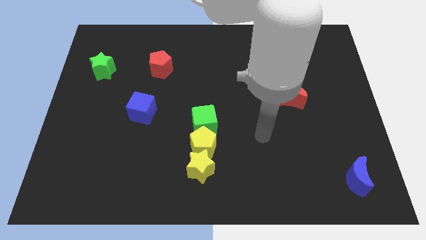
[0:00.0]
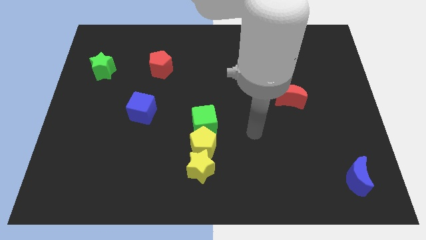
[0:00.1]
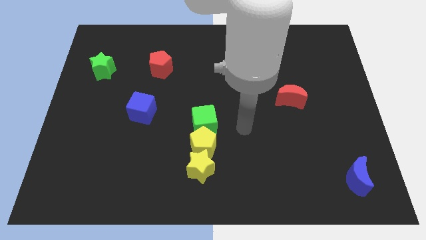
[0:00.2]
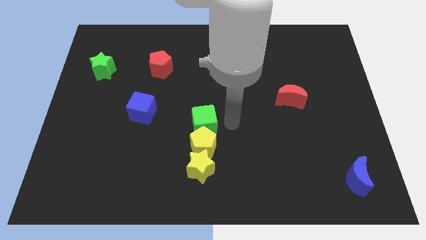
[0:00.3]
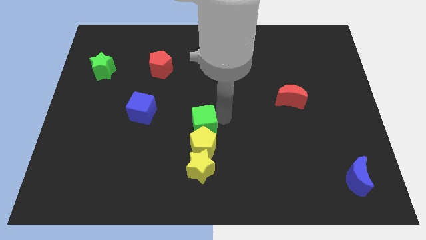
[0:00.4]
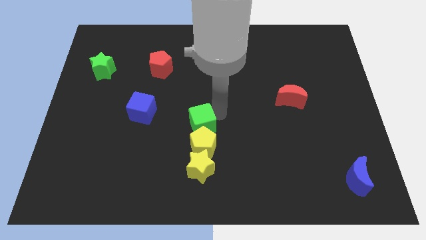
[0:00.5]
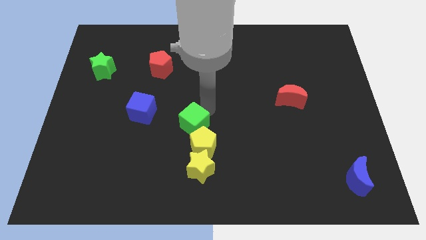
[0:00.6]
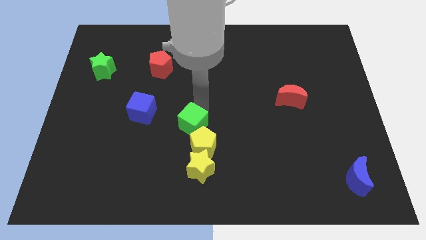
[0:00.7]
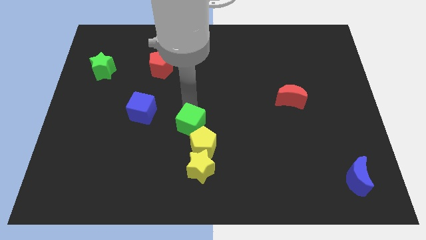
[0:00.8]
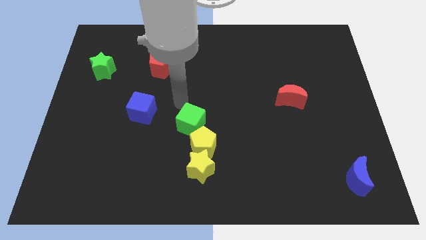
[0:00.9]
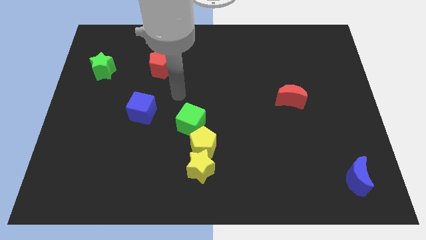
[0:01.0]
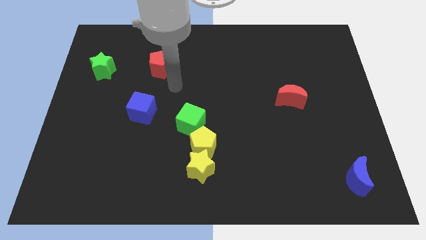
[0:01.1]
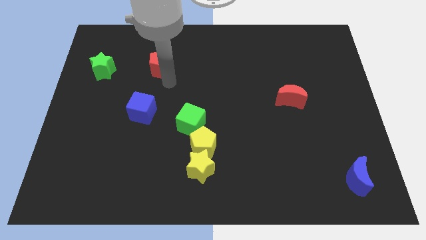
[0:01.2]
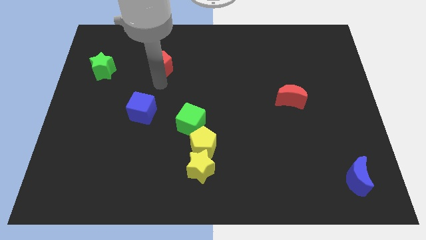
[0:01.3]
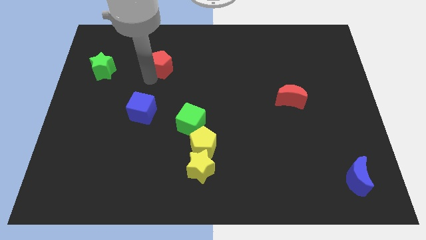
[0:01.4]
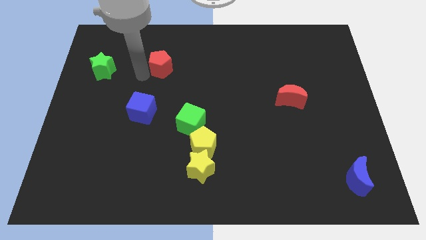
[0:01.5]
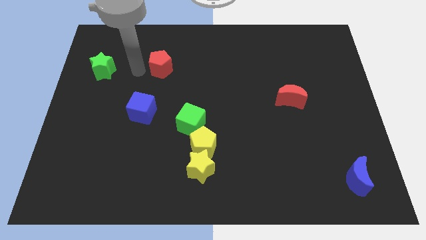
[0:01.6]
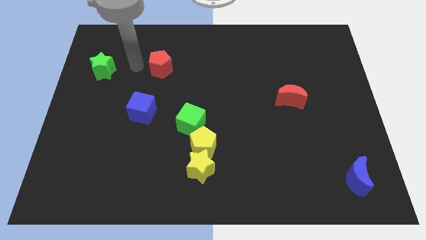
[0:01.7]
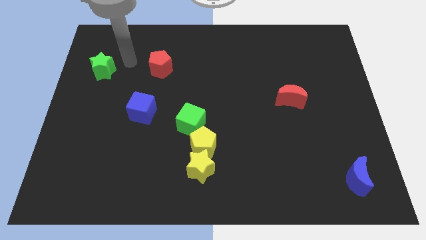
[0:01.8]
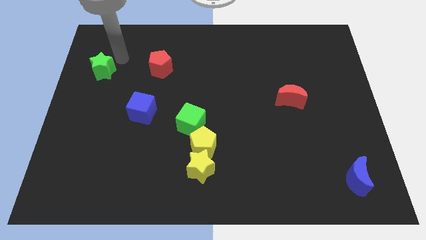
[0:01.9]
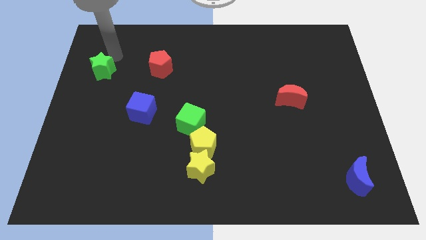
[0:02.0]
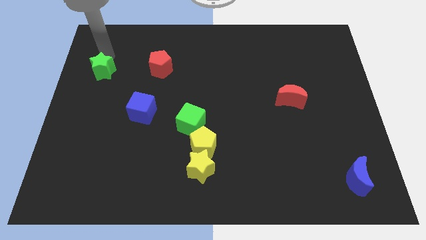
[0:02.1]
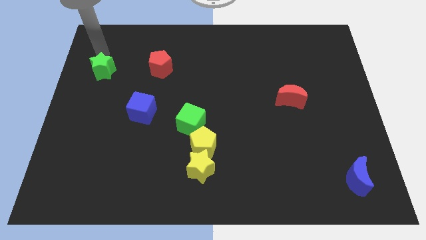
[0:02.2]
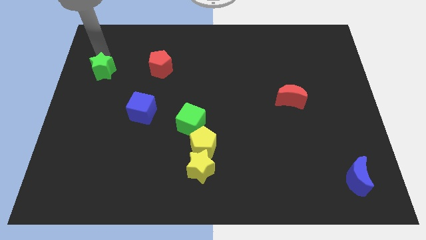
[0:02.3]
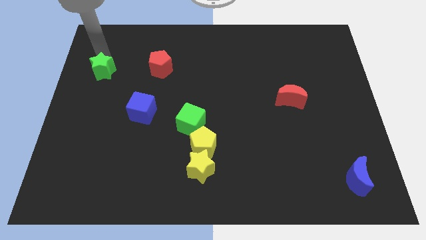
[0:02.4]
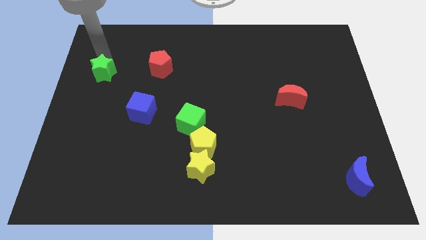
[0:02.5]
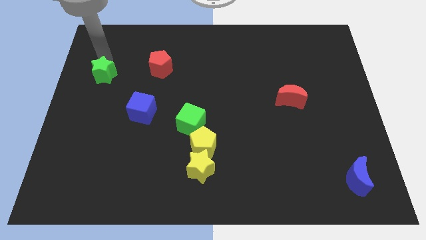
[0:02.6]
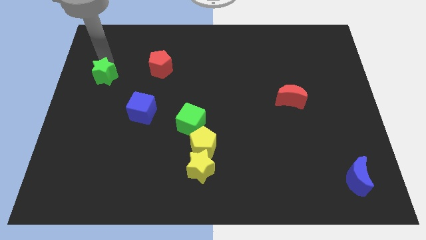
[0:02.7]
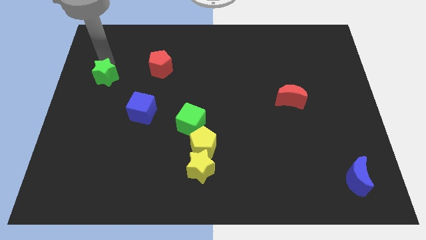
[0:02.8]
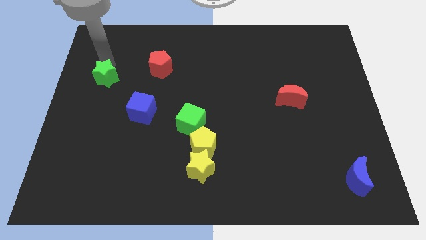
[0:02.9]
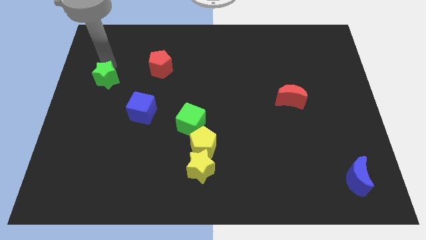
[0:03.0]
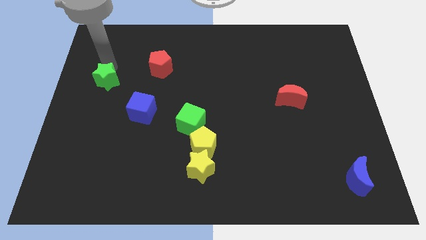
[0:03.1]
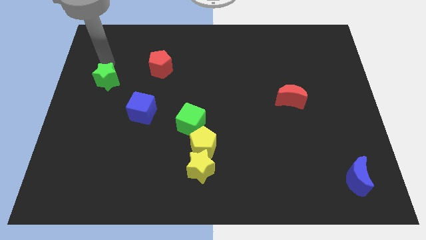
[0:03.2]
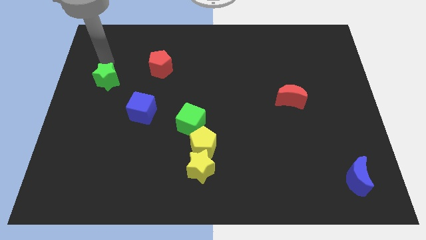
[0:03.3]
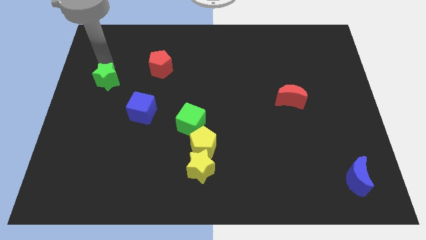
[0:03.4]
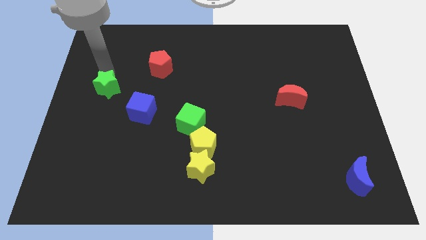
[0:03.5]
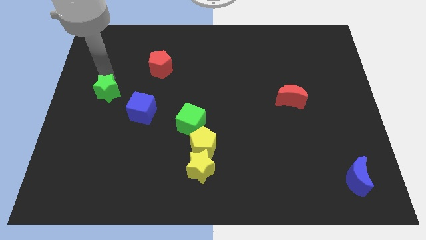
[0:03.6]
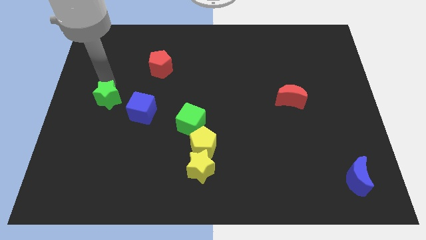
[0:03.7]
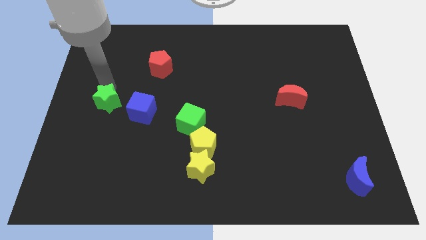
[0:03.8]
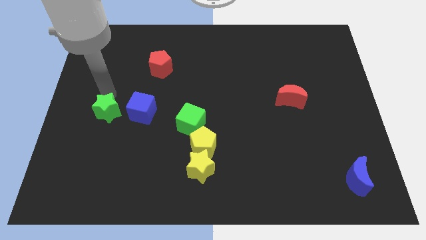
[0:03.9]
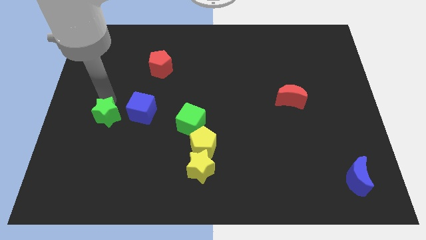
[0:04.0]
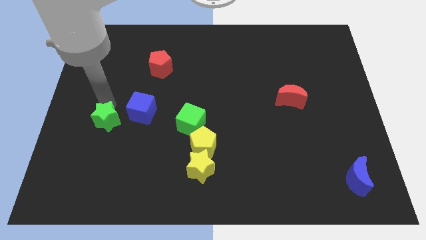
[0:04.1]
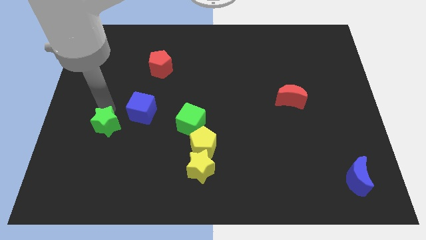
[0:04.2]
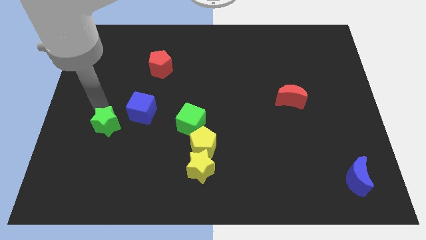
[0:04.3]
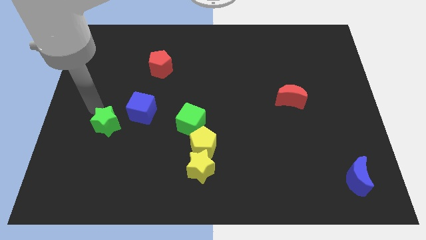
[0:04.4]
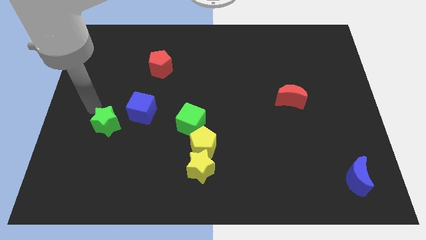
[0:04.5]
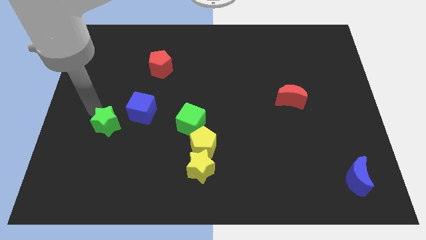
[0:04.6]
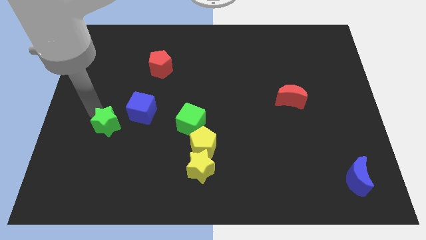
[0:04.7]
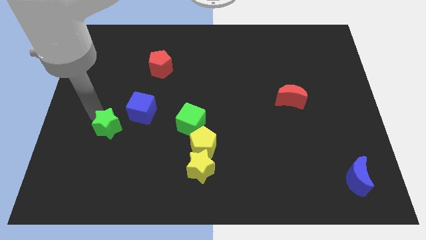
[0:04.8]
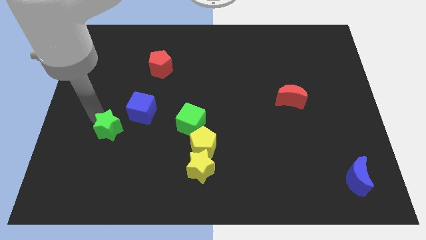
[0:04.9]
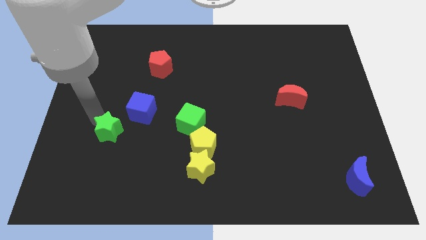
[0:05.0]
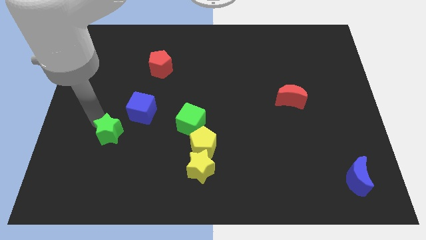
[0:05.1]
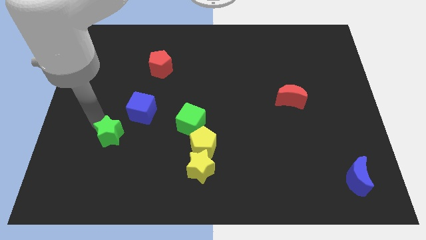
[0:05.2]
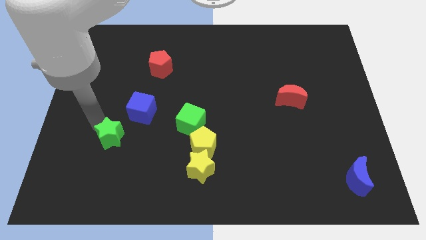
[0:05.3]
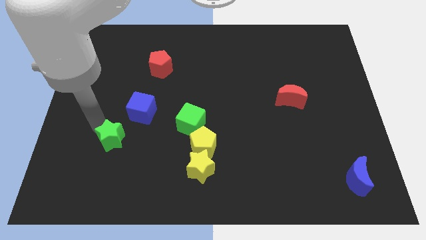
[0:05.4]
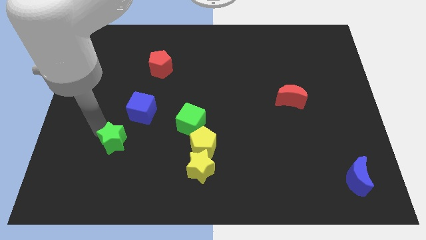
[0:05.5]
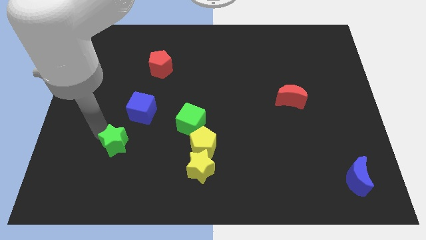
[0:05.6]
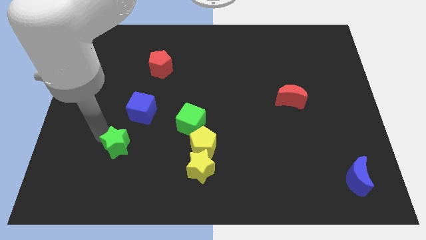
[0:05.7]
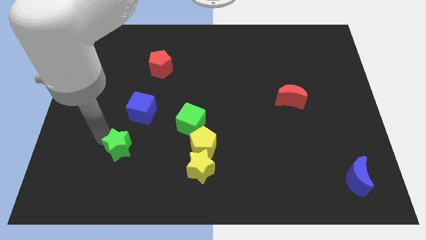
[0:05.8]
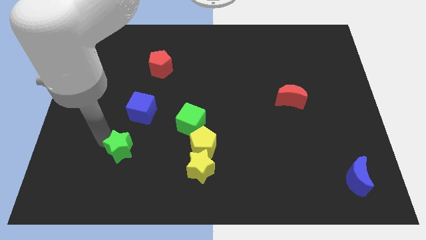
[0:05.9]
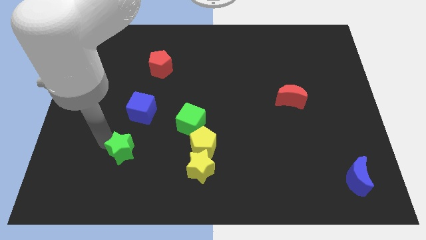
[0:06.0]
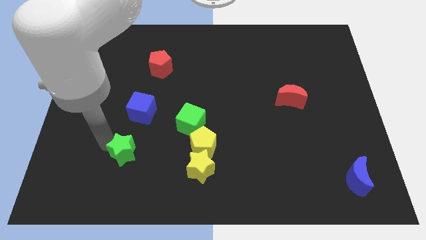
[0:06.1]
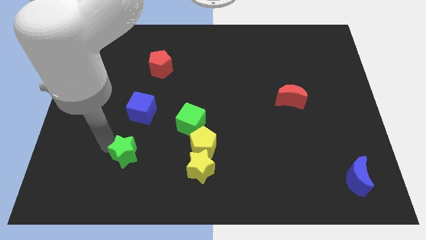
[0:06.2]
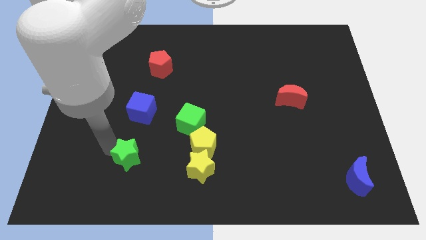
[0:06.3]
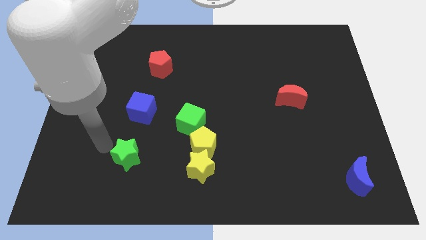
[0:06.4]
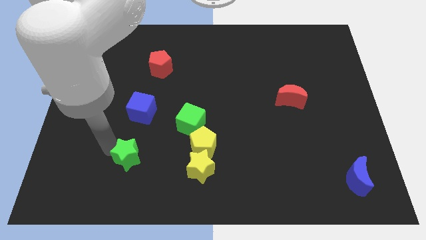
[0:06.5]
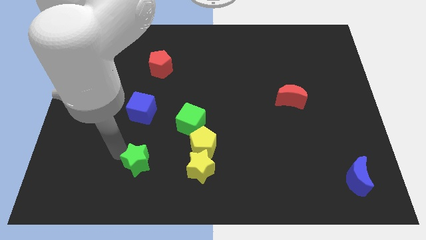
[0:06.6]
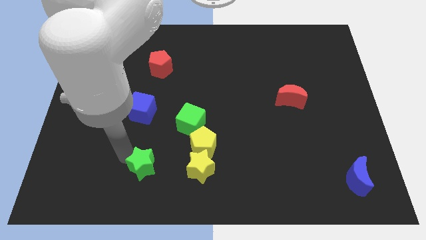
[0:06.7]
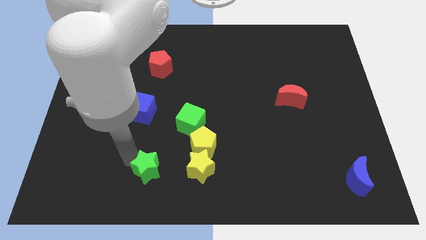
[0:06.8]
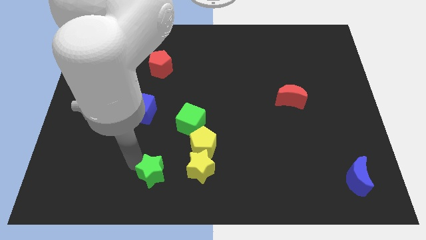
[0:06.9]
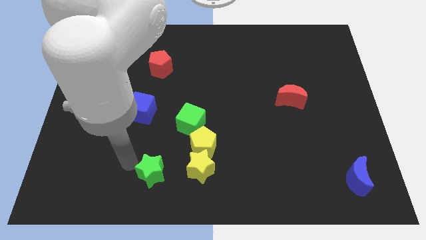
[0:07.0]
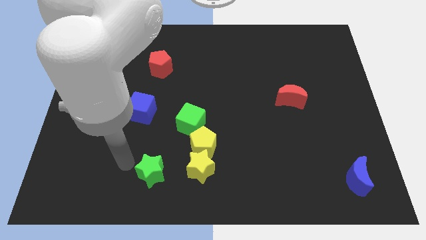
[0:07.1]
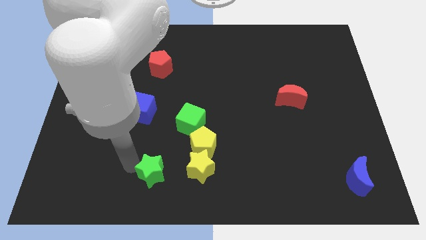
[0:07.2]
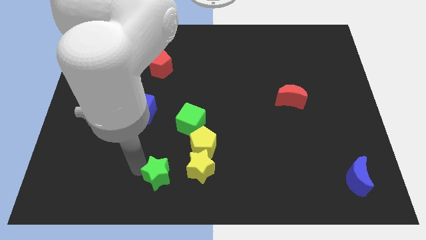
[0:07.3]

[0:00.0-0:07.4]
move the green star to the bottom side
